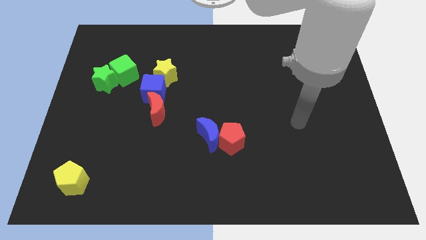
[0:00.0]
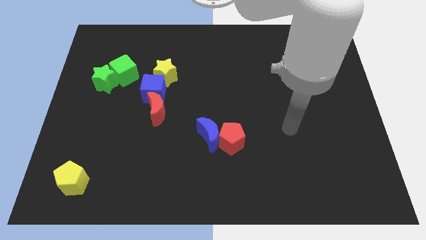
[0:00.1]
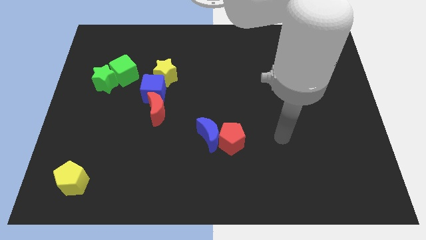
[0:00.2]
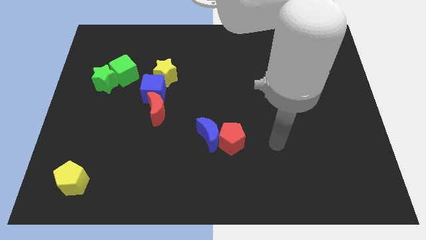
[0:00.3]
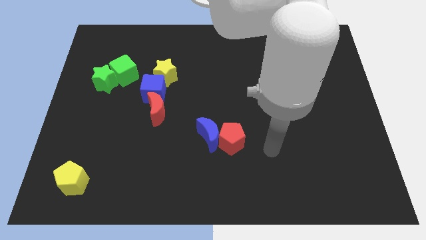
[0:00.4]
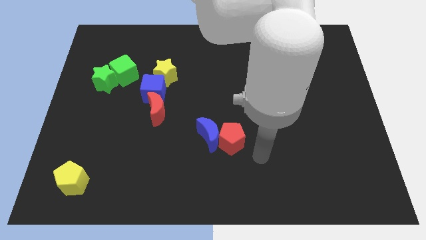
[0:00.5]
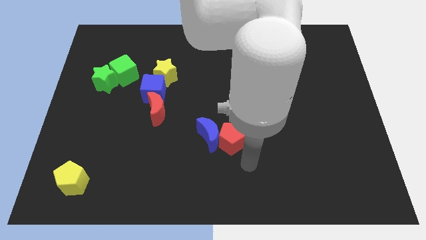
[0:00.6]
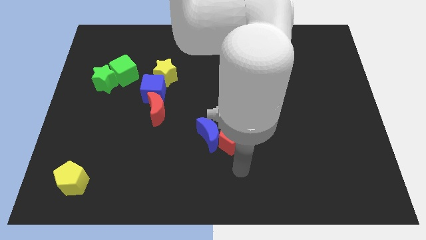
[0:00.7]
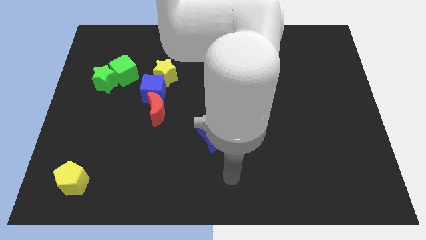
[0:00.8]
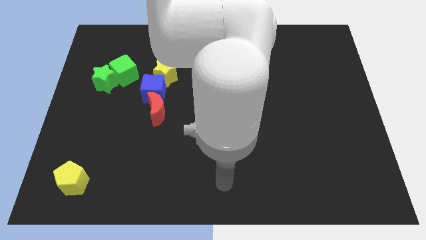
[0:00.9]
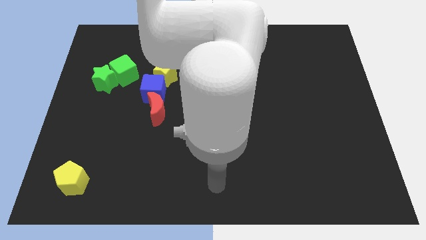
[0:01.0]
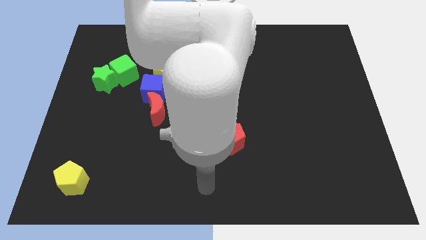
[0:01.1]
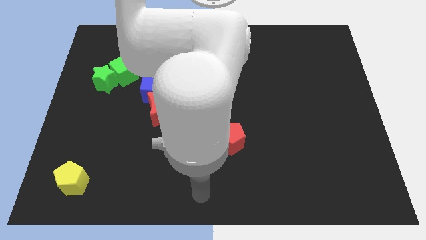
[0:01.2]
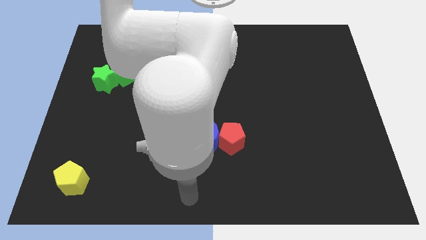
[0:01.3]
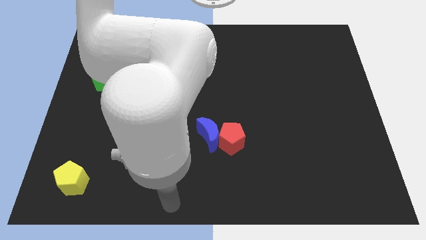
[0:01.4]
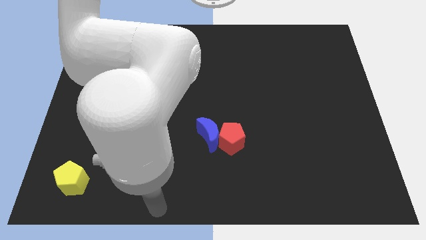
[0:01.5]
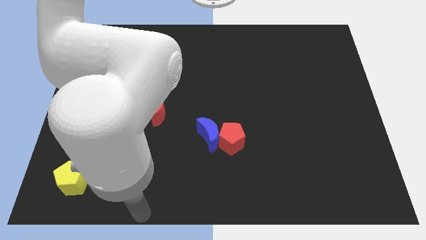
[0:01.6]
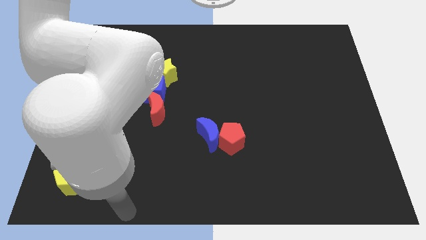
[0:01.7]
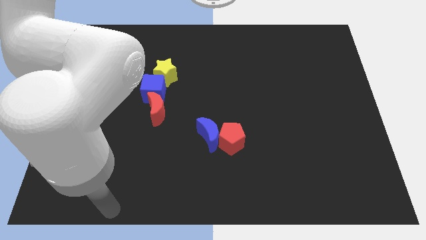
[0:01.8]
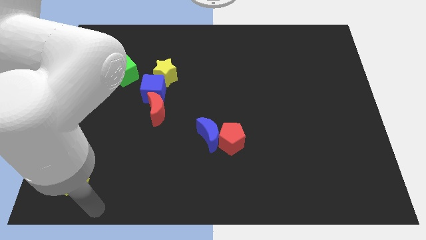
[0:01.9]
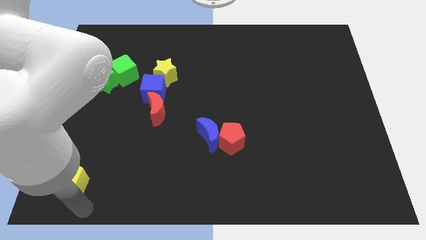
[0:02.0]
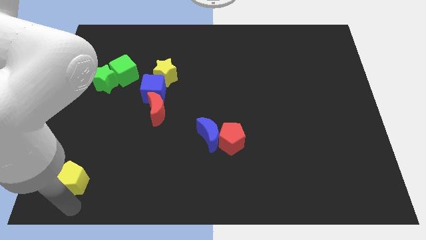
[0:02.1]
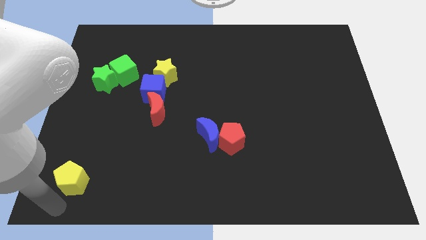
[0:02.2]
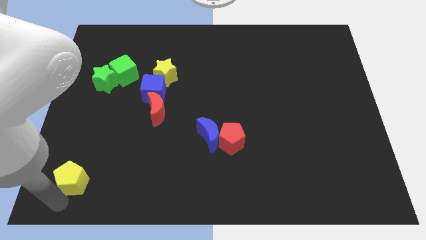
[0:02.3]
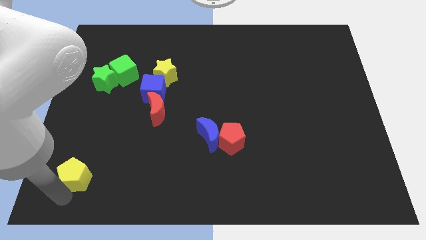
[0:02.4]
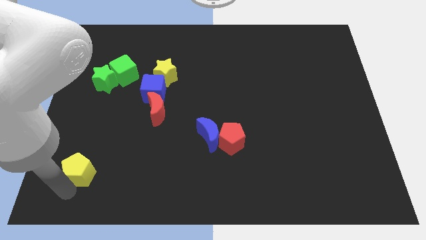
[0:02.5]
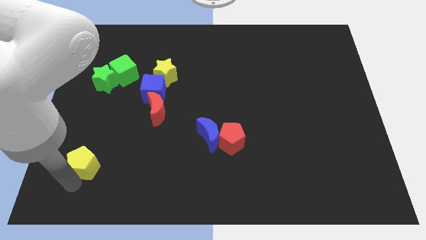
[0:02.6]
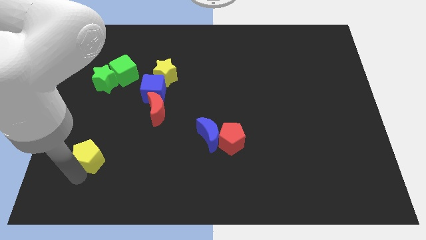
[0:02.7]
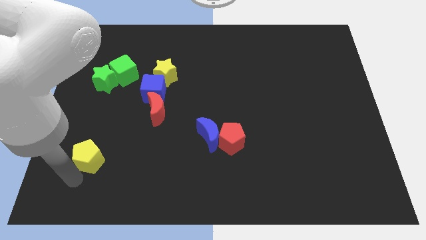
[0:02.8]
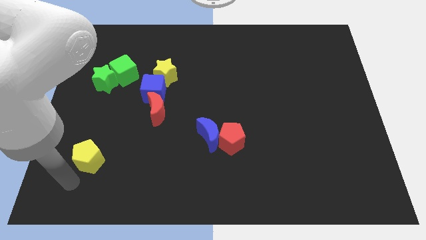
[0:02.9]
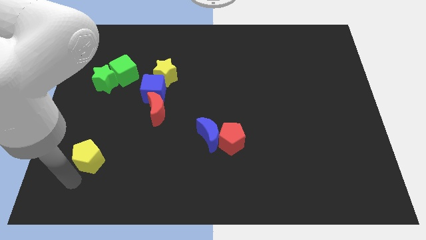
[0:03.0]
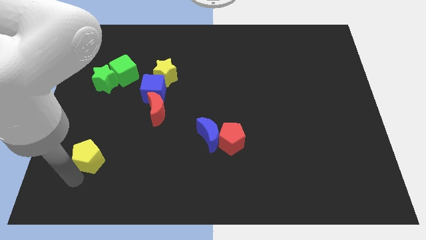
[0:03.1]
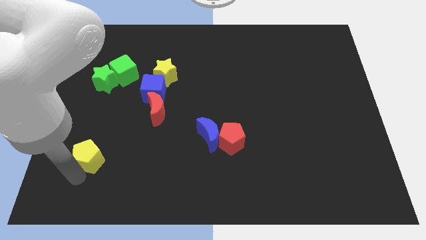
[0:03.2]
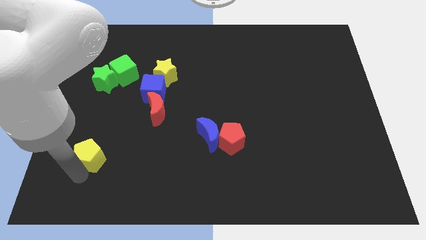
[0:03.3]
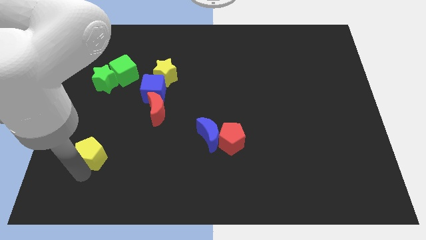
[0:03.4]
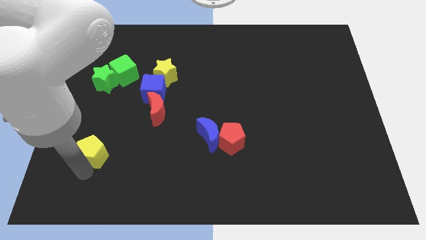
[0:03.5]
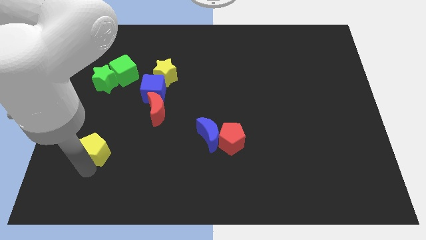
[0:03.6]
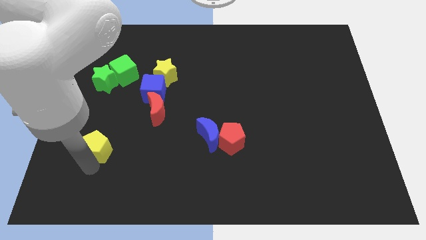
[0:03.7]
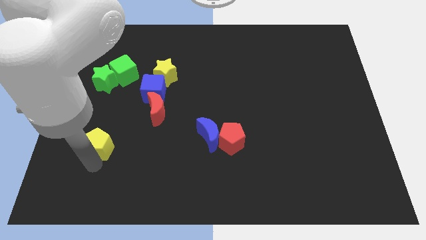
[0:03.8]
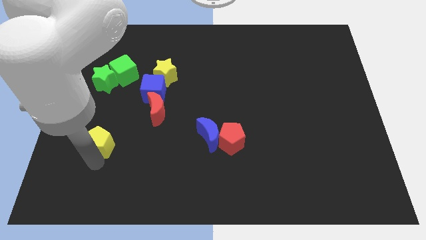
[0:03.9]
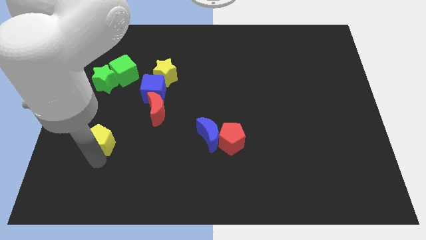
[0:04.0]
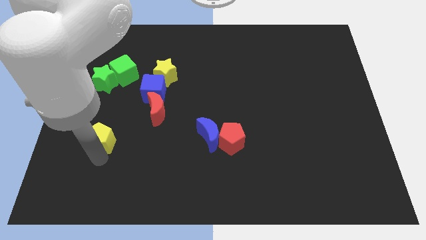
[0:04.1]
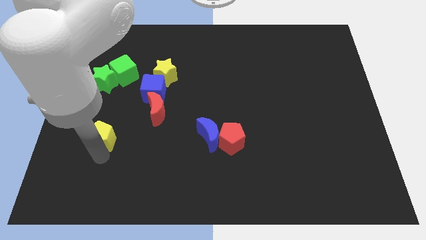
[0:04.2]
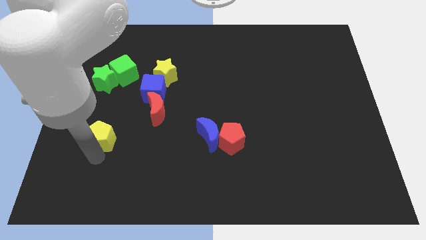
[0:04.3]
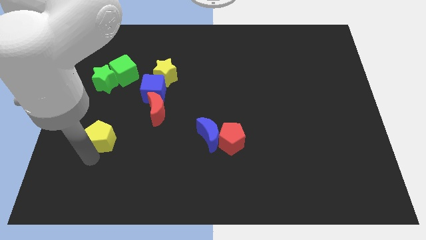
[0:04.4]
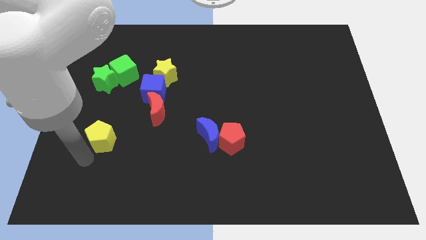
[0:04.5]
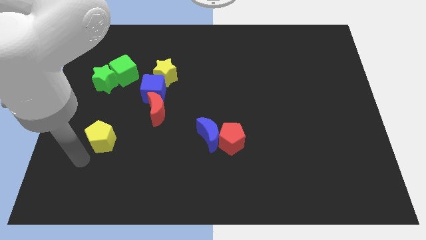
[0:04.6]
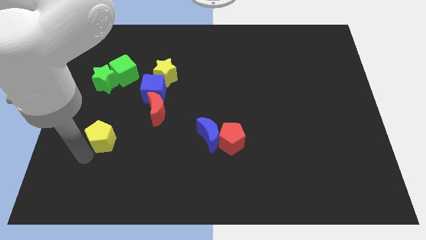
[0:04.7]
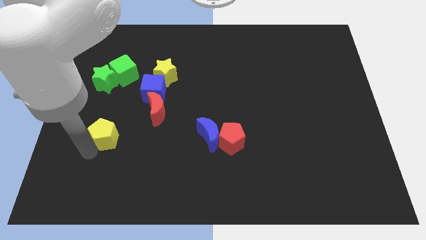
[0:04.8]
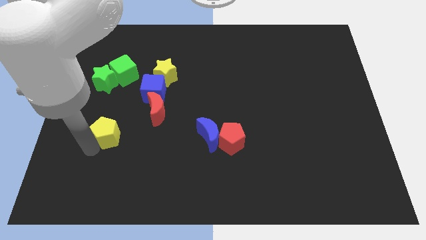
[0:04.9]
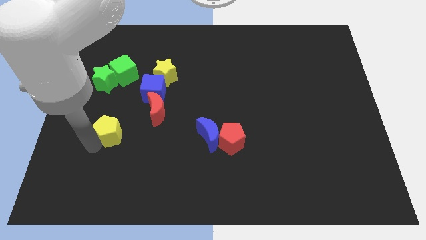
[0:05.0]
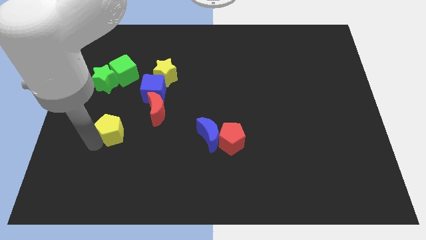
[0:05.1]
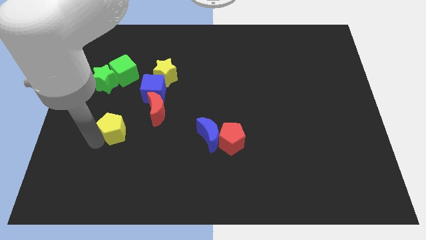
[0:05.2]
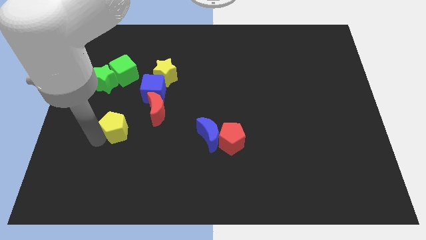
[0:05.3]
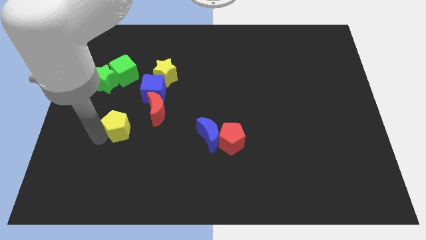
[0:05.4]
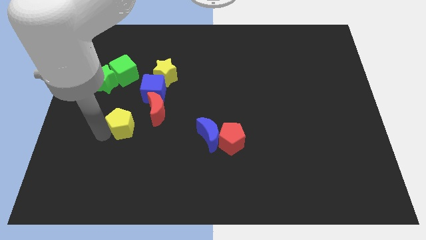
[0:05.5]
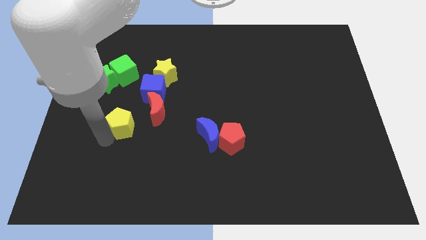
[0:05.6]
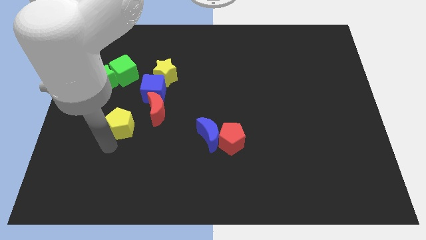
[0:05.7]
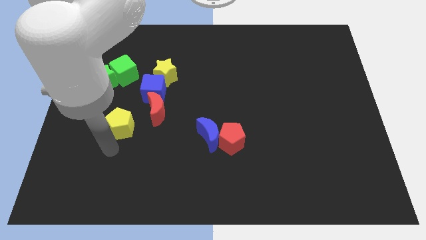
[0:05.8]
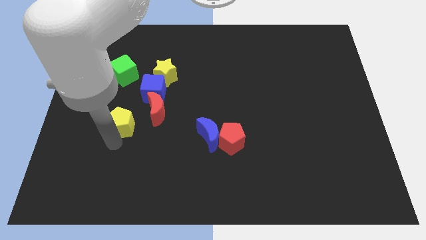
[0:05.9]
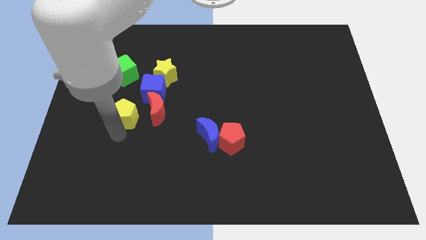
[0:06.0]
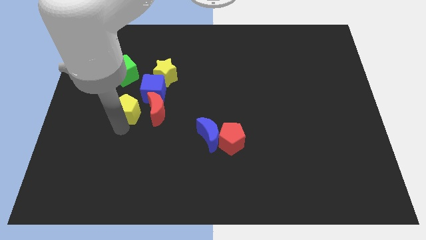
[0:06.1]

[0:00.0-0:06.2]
move the yellow pentagon to the top left side of the red moon

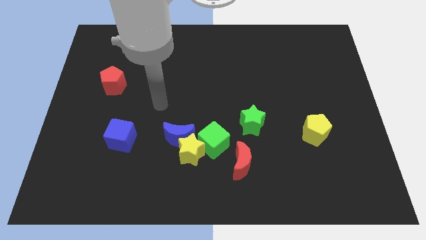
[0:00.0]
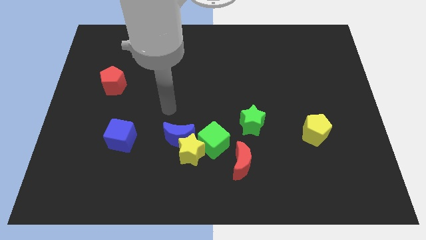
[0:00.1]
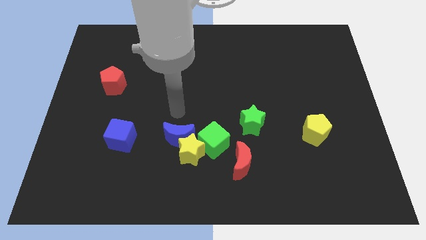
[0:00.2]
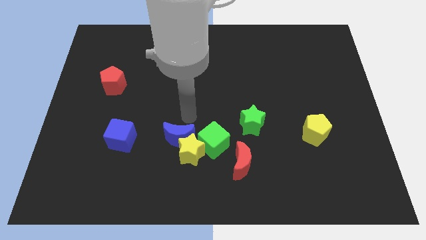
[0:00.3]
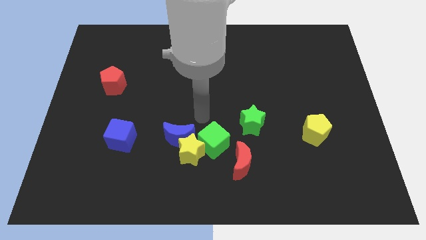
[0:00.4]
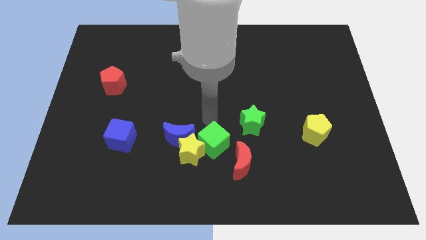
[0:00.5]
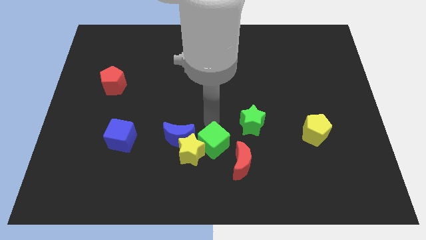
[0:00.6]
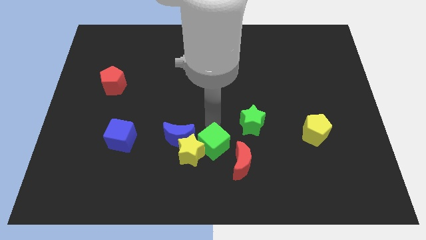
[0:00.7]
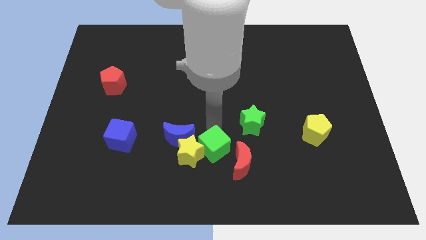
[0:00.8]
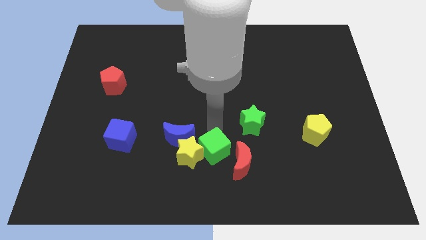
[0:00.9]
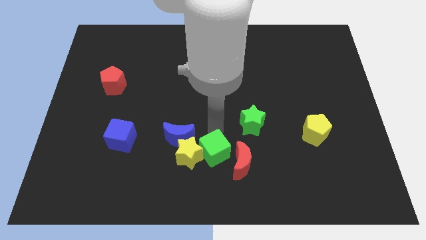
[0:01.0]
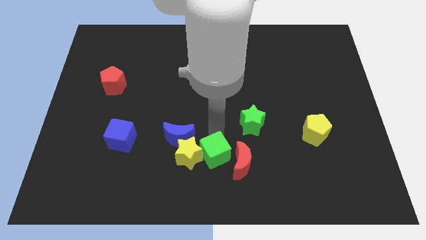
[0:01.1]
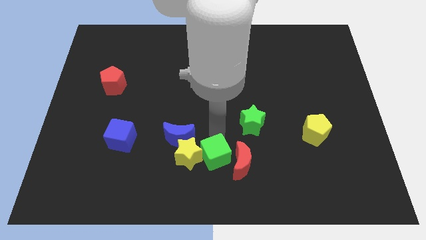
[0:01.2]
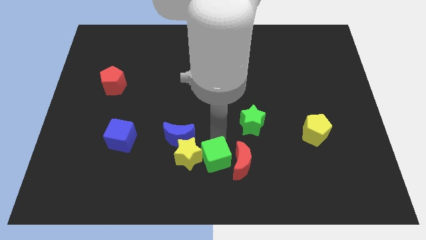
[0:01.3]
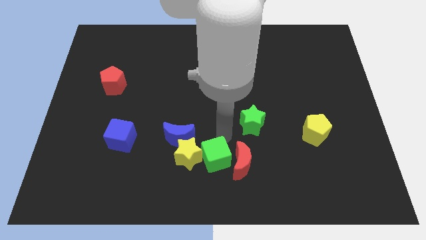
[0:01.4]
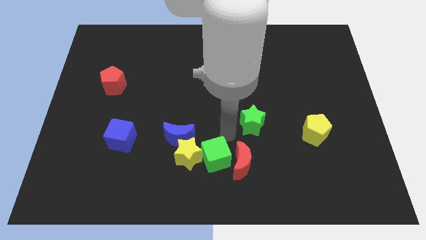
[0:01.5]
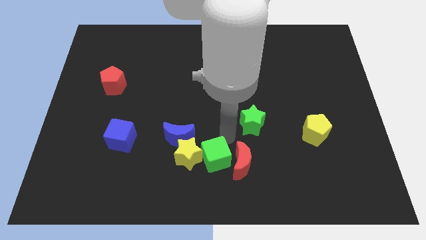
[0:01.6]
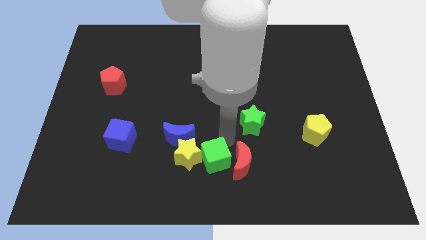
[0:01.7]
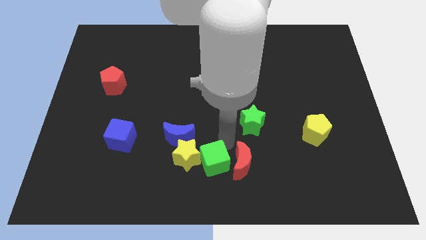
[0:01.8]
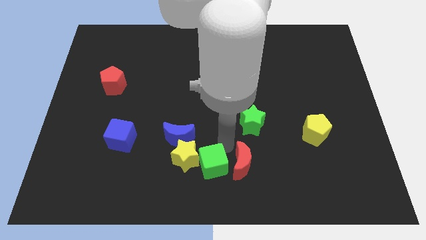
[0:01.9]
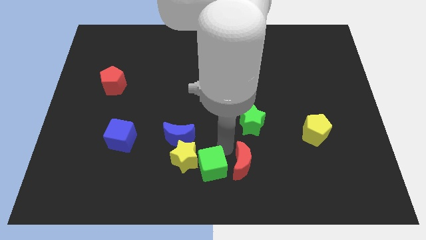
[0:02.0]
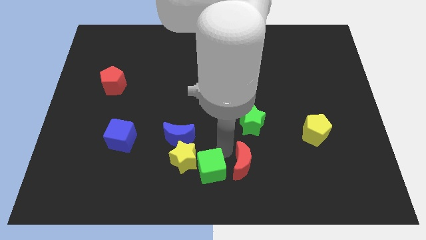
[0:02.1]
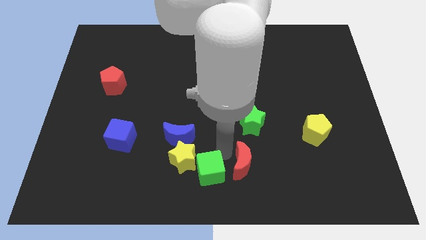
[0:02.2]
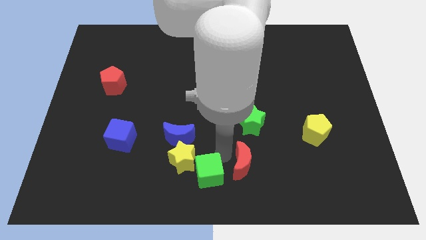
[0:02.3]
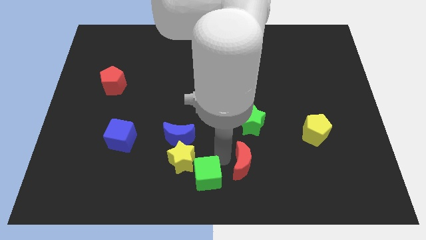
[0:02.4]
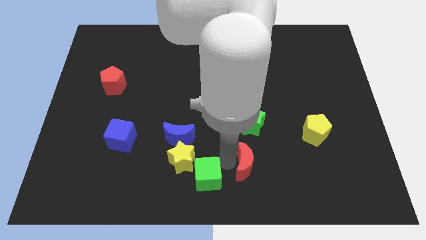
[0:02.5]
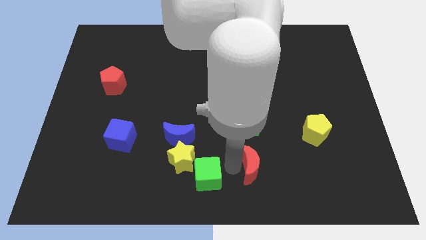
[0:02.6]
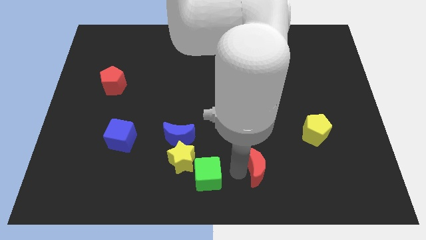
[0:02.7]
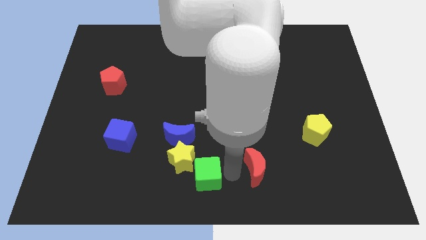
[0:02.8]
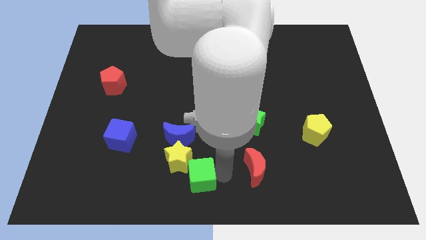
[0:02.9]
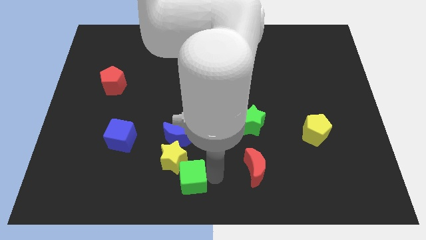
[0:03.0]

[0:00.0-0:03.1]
move the green cube to the bottom of the blue moon
